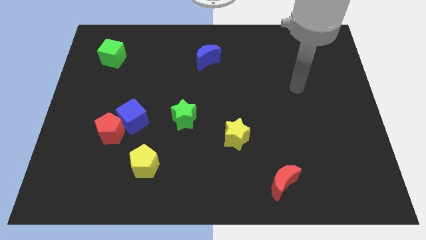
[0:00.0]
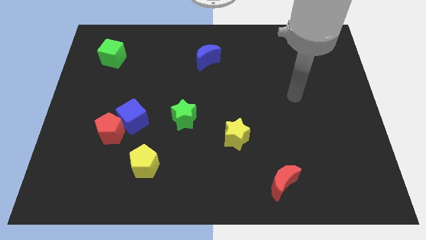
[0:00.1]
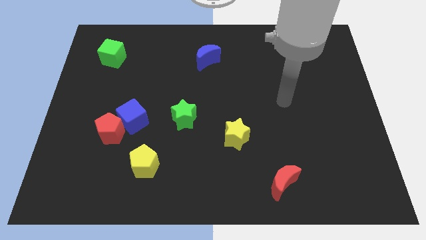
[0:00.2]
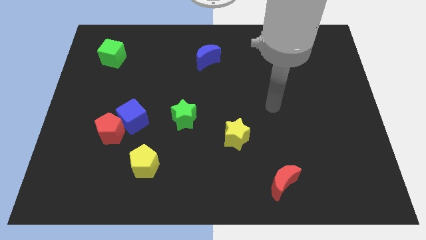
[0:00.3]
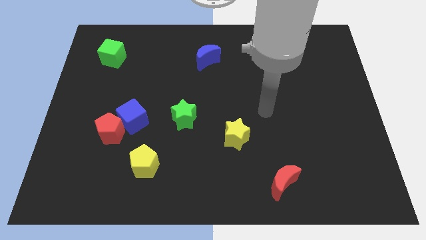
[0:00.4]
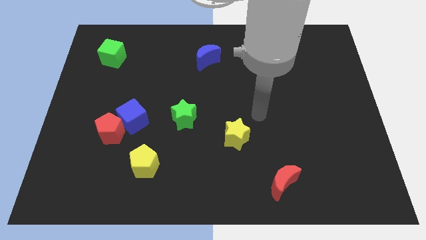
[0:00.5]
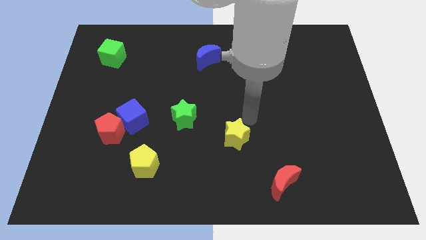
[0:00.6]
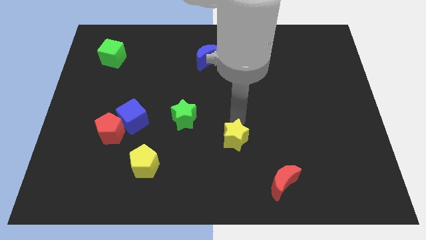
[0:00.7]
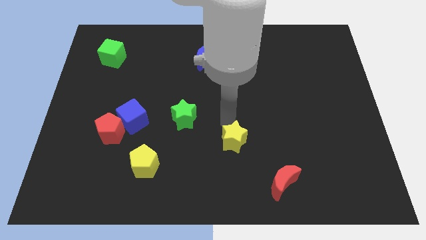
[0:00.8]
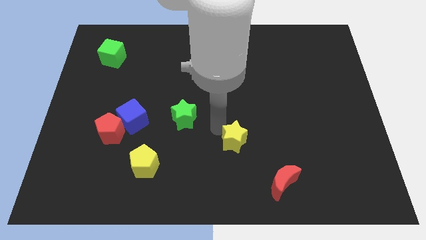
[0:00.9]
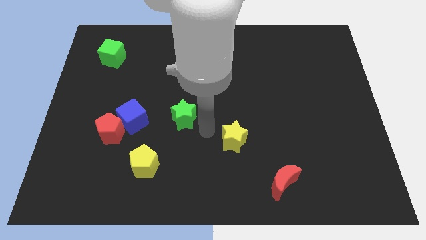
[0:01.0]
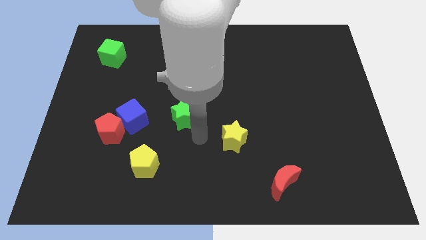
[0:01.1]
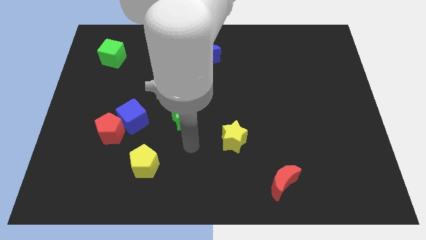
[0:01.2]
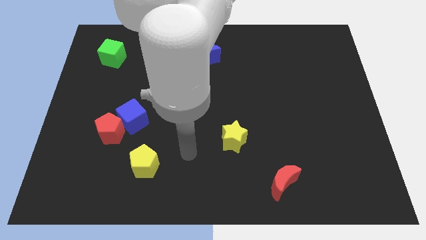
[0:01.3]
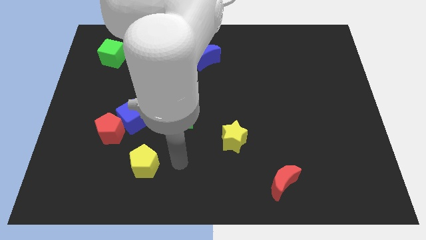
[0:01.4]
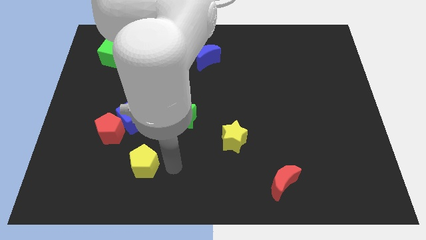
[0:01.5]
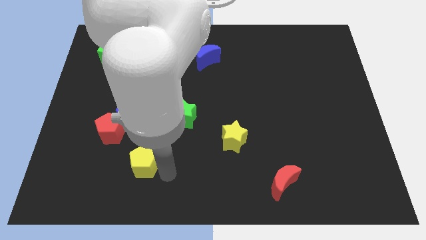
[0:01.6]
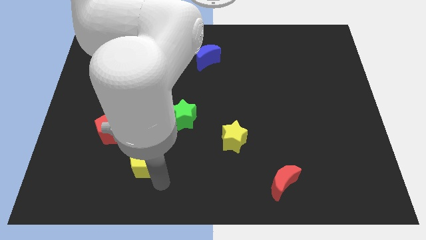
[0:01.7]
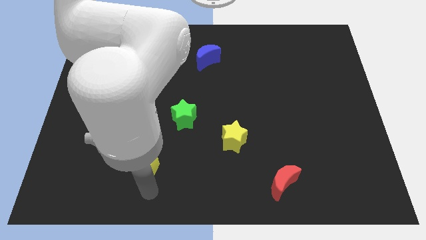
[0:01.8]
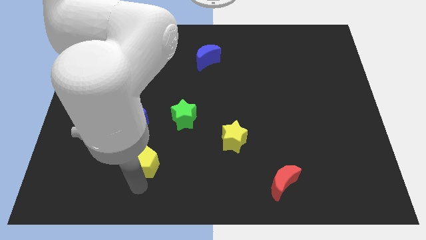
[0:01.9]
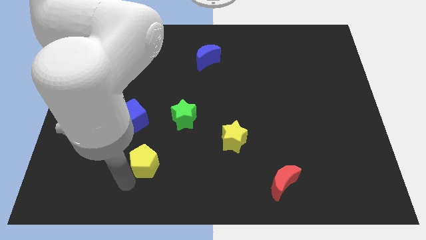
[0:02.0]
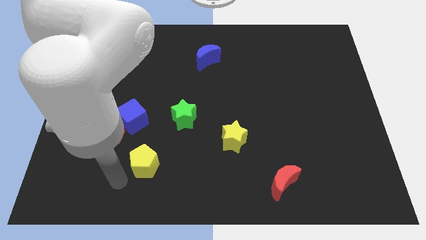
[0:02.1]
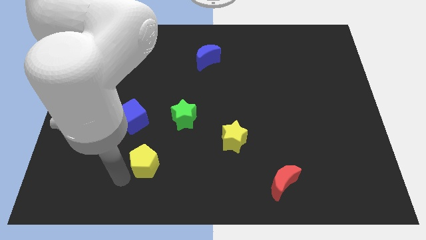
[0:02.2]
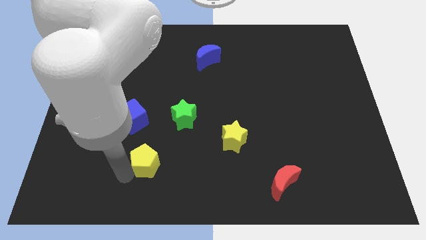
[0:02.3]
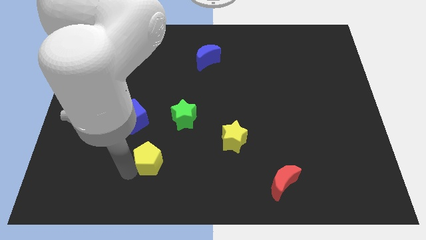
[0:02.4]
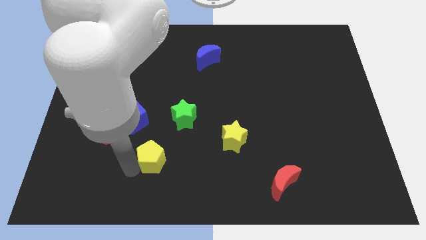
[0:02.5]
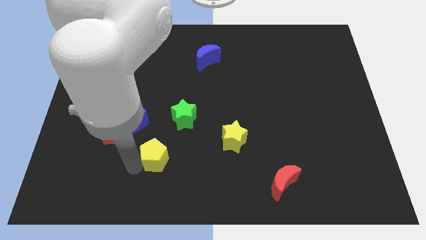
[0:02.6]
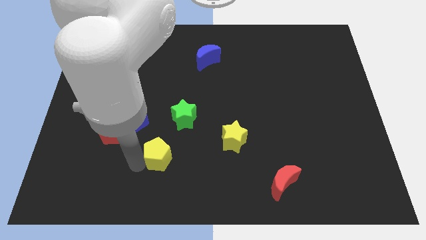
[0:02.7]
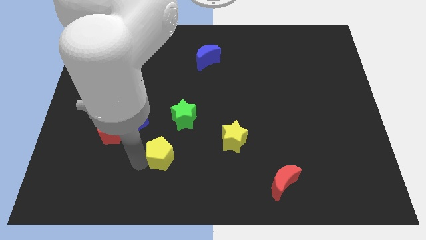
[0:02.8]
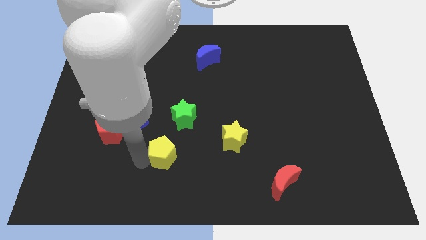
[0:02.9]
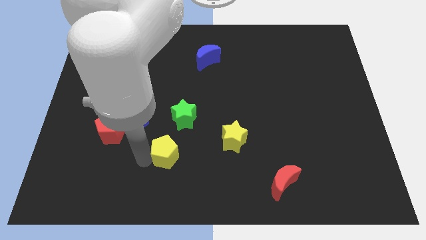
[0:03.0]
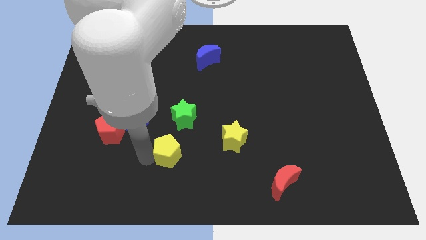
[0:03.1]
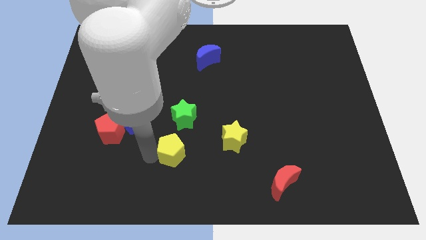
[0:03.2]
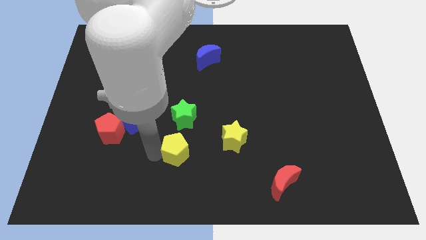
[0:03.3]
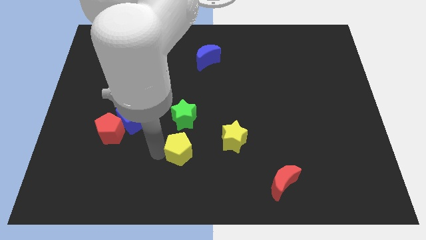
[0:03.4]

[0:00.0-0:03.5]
push the yellow pentagon a little upwards and right

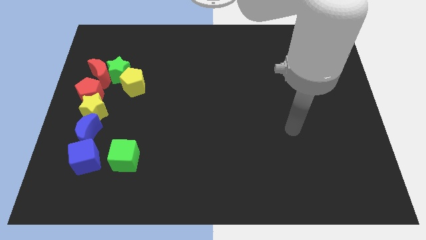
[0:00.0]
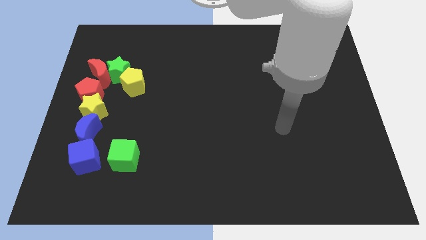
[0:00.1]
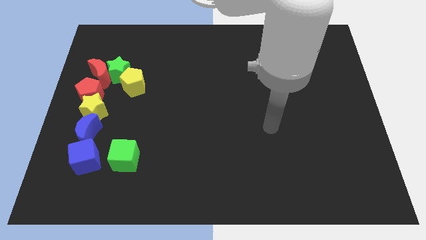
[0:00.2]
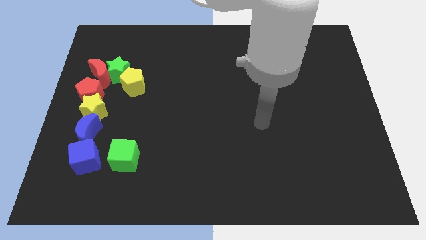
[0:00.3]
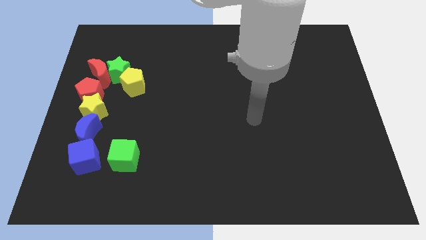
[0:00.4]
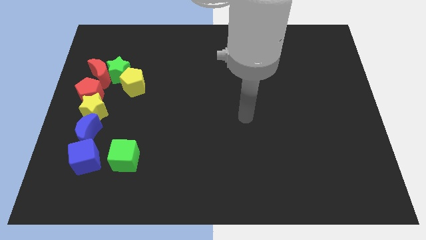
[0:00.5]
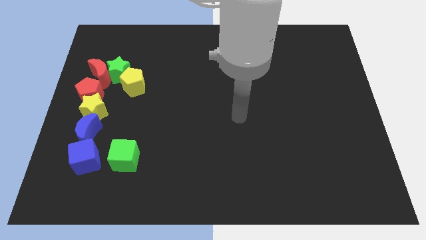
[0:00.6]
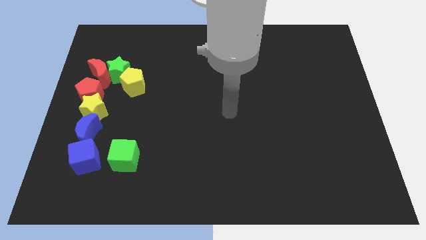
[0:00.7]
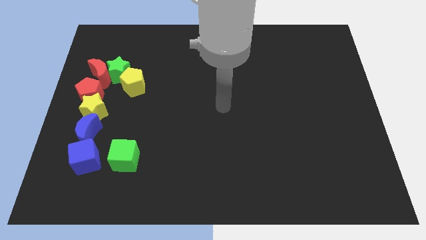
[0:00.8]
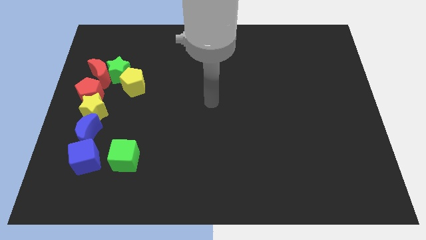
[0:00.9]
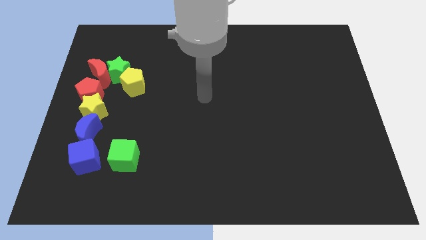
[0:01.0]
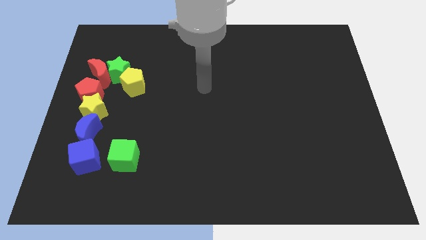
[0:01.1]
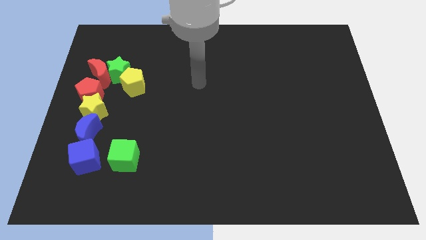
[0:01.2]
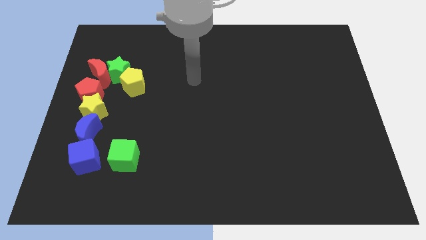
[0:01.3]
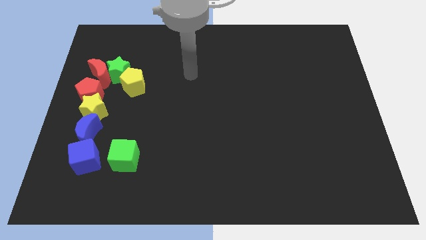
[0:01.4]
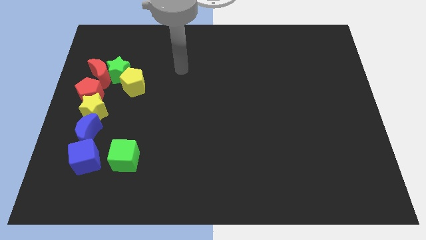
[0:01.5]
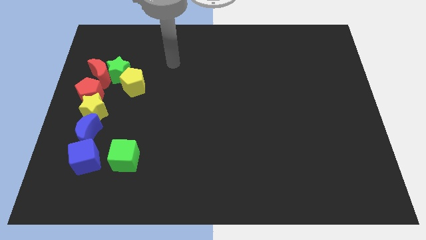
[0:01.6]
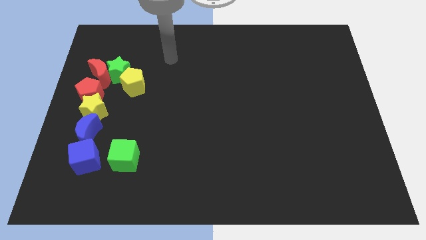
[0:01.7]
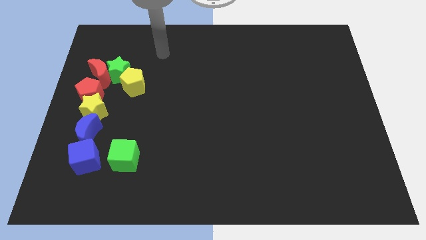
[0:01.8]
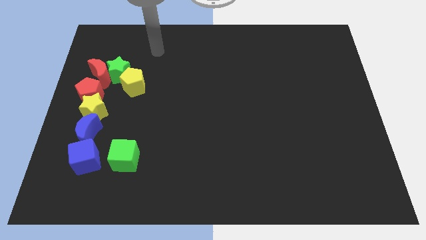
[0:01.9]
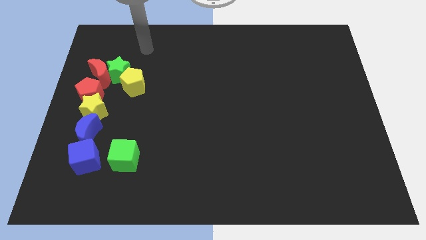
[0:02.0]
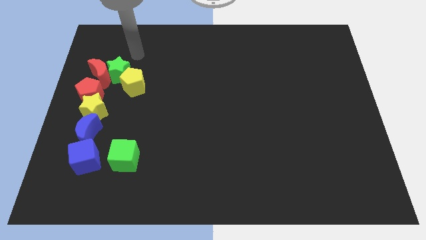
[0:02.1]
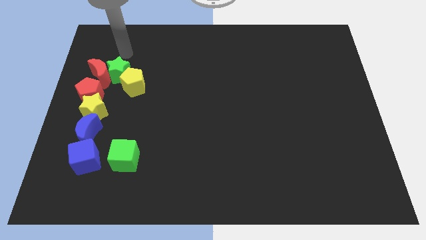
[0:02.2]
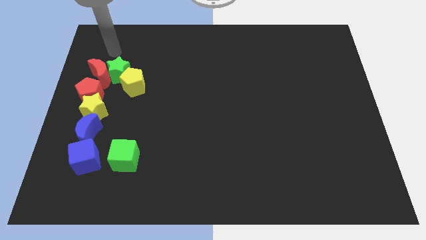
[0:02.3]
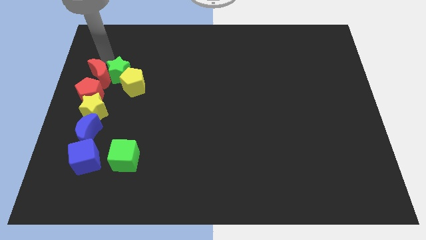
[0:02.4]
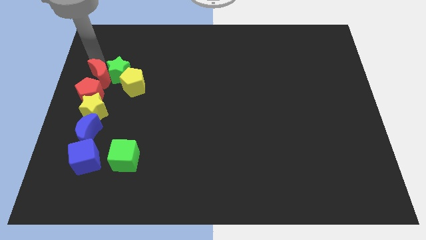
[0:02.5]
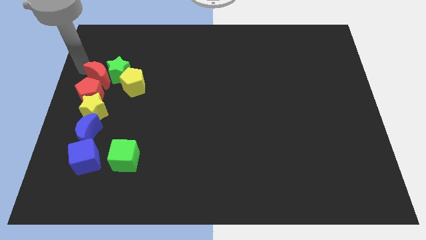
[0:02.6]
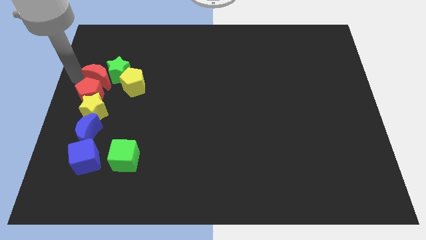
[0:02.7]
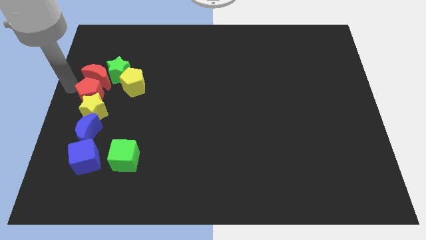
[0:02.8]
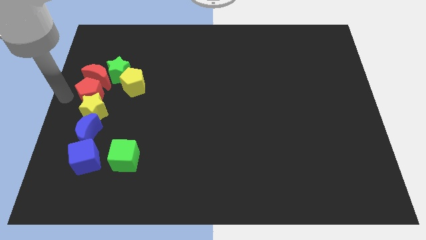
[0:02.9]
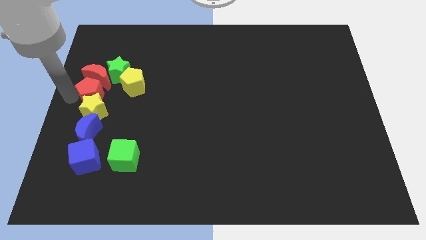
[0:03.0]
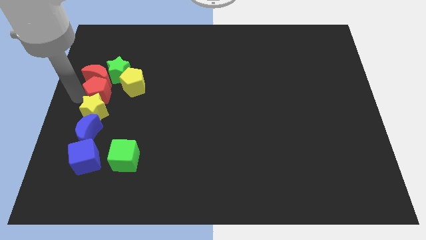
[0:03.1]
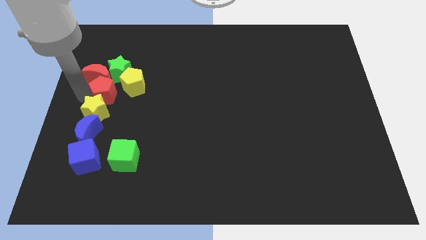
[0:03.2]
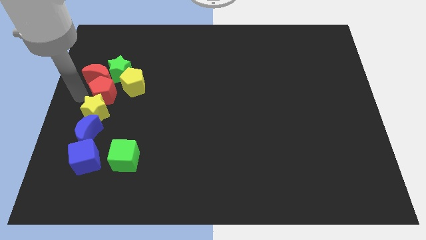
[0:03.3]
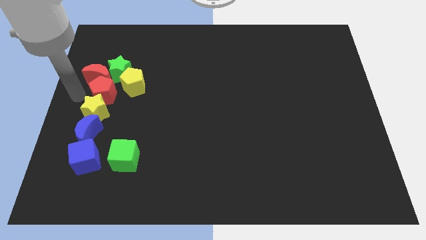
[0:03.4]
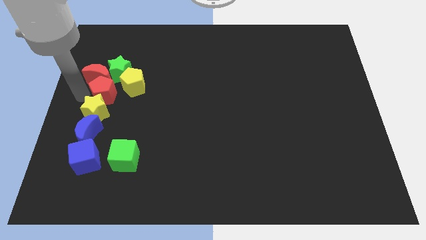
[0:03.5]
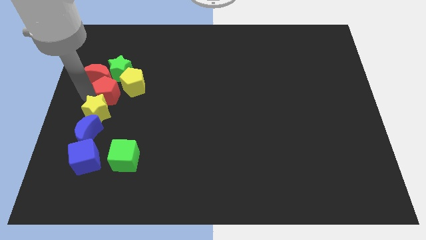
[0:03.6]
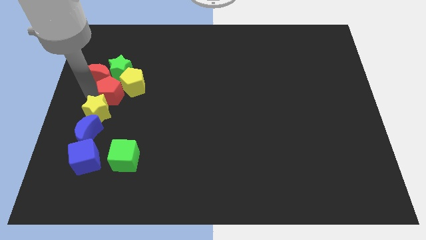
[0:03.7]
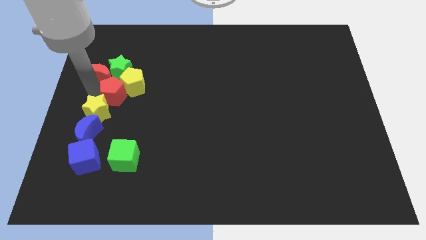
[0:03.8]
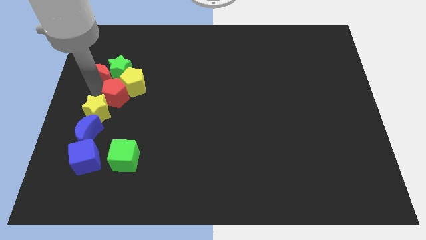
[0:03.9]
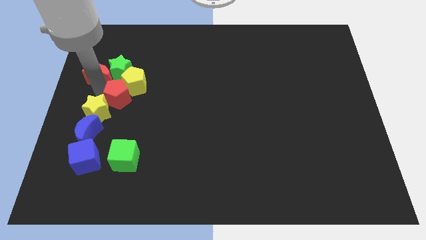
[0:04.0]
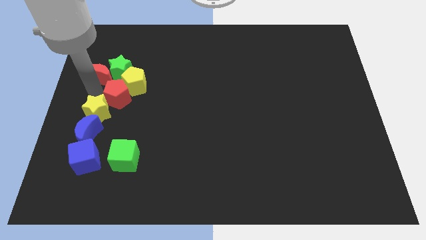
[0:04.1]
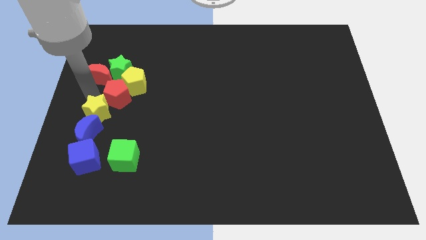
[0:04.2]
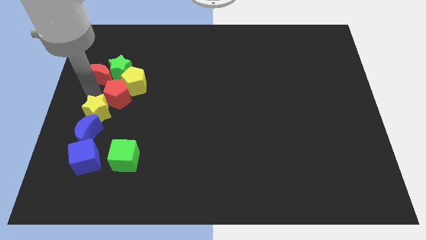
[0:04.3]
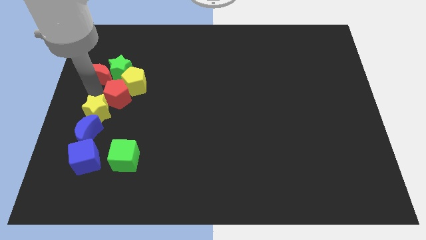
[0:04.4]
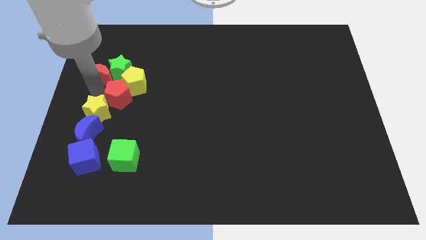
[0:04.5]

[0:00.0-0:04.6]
slide the red pentagon a little bit to the right
